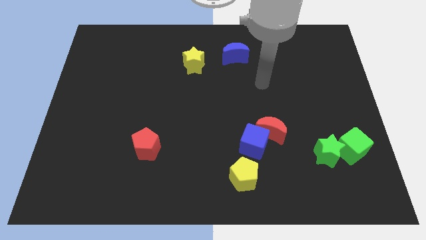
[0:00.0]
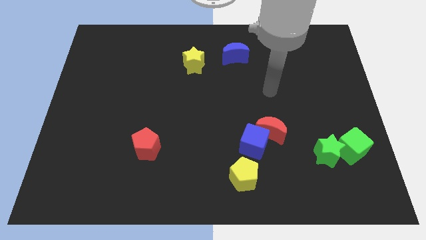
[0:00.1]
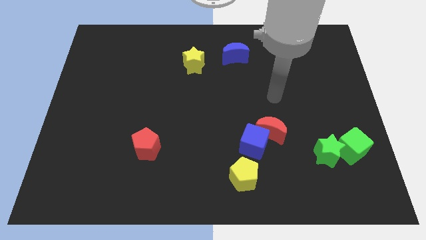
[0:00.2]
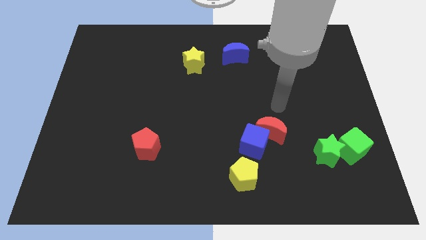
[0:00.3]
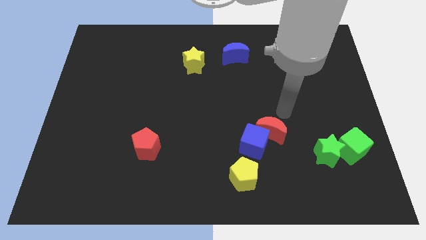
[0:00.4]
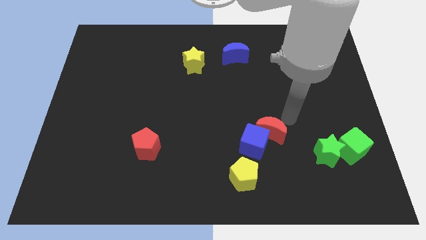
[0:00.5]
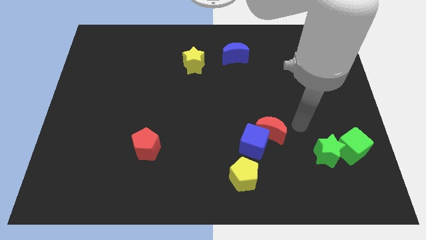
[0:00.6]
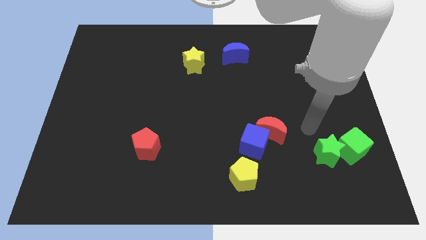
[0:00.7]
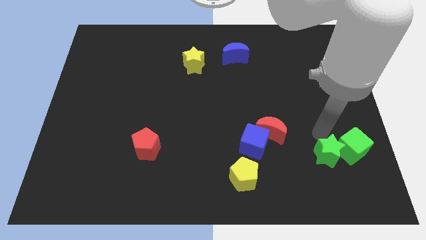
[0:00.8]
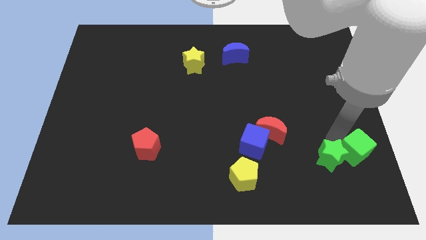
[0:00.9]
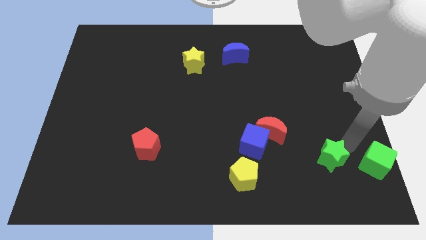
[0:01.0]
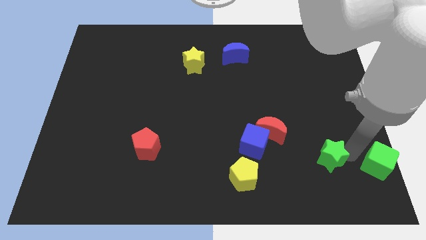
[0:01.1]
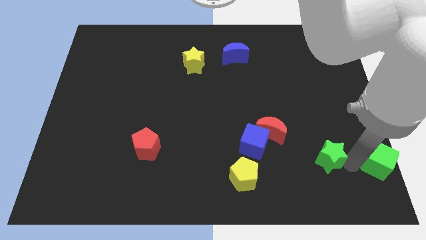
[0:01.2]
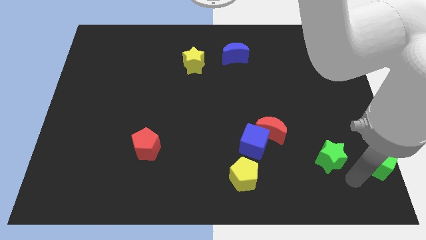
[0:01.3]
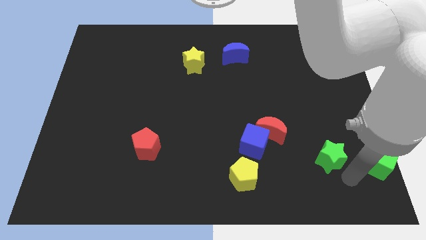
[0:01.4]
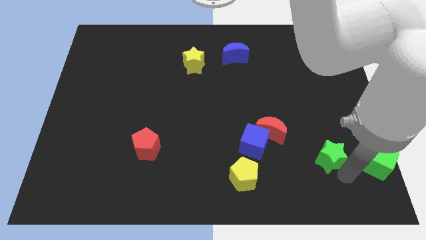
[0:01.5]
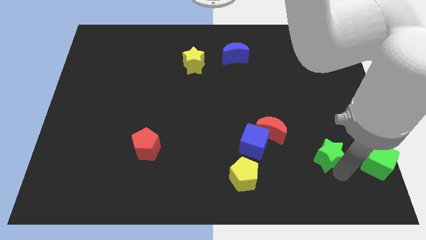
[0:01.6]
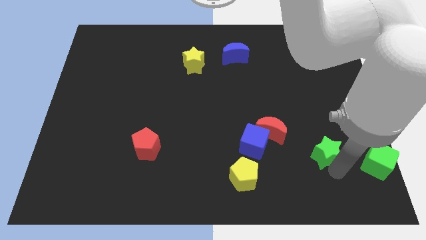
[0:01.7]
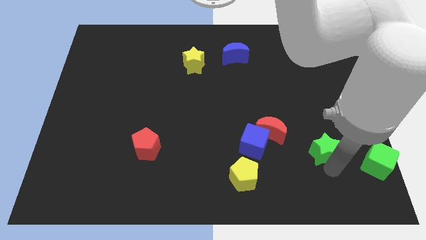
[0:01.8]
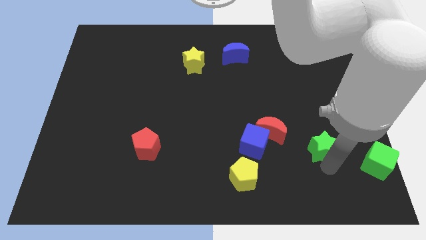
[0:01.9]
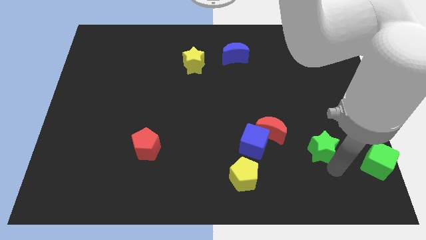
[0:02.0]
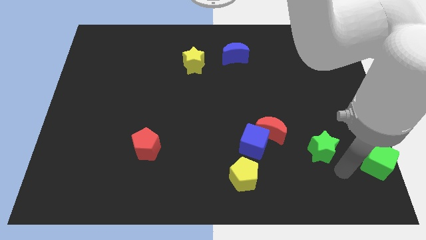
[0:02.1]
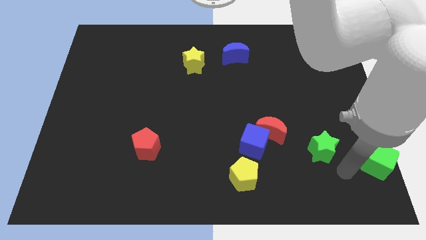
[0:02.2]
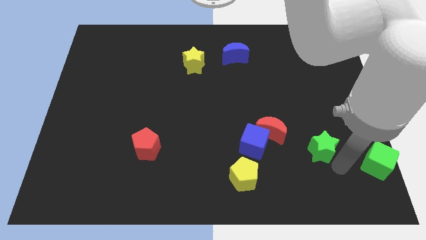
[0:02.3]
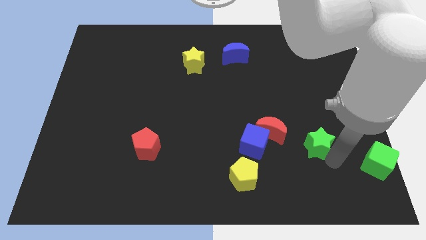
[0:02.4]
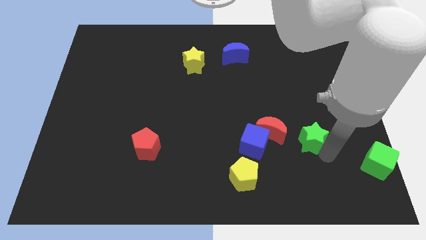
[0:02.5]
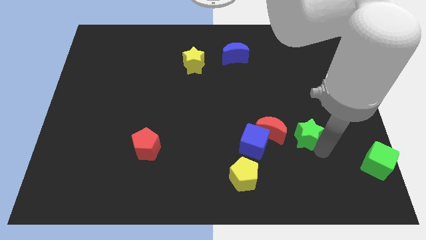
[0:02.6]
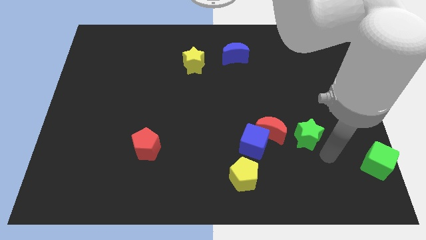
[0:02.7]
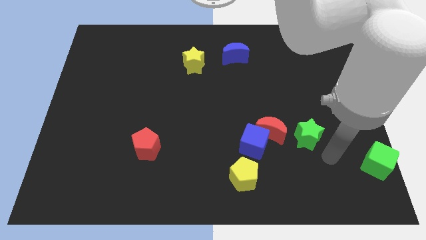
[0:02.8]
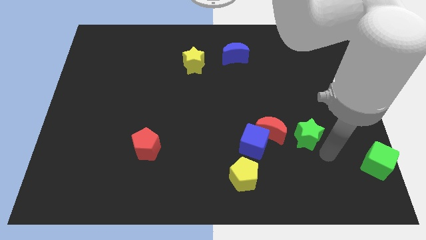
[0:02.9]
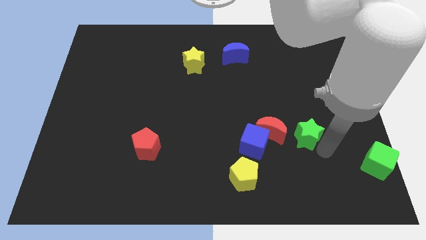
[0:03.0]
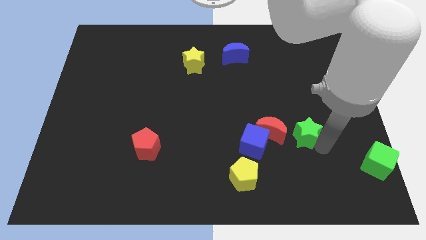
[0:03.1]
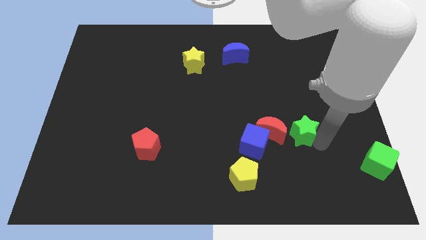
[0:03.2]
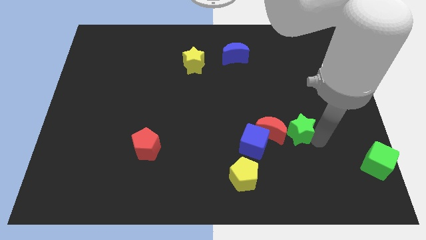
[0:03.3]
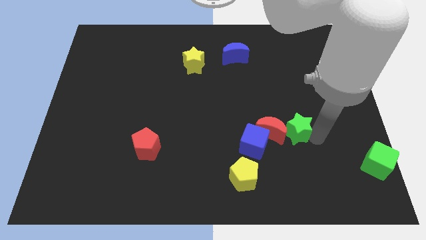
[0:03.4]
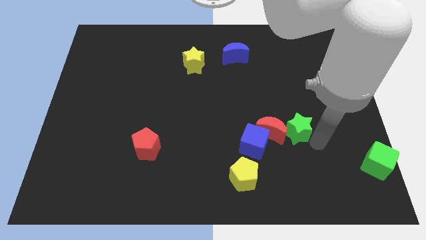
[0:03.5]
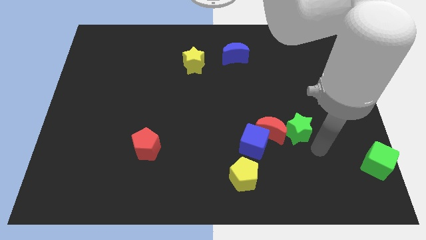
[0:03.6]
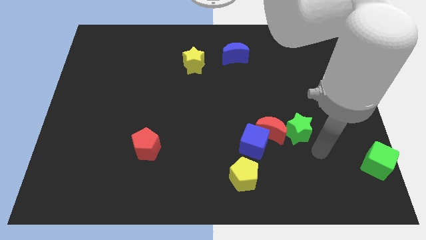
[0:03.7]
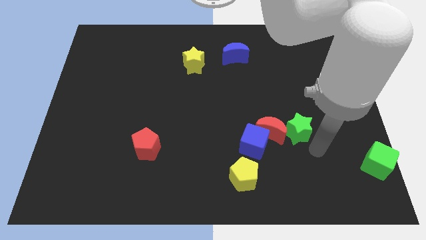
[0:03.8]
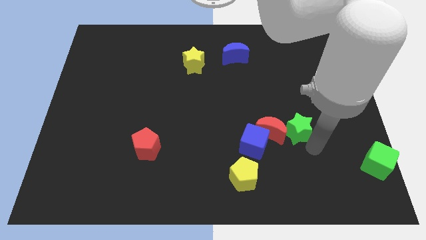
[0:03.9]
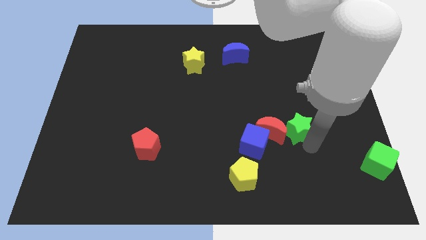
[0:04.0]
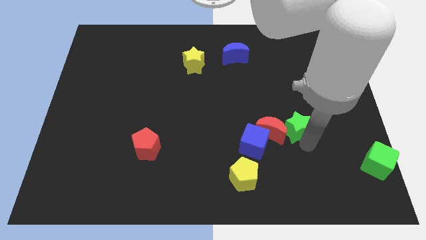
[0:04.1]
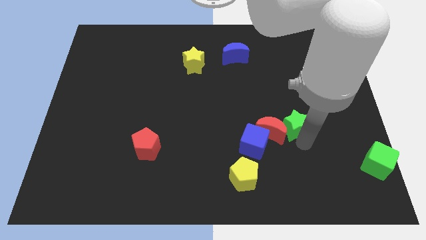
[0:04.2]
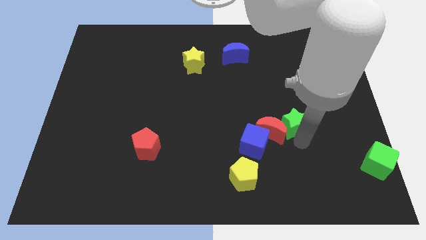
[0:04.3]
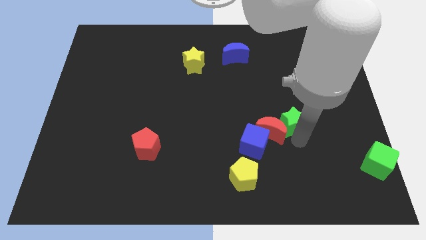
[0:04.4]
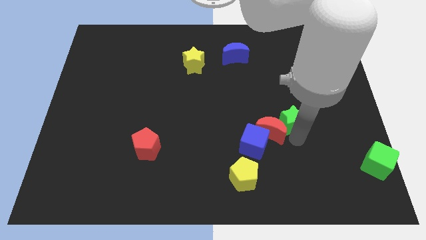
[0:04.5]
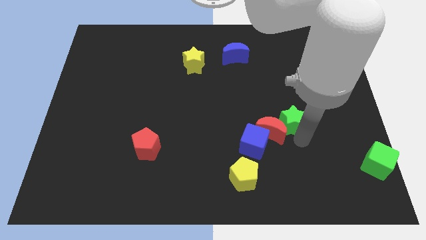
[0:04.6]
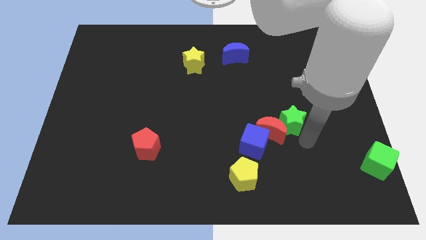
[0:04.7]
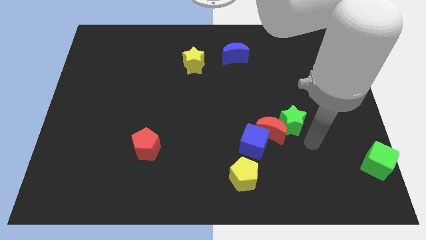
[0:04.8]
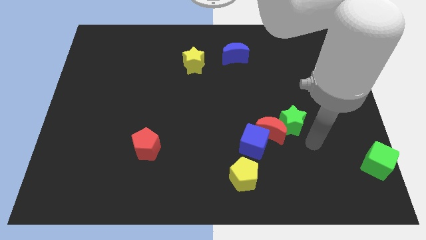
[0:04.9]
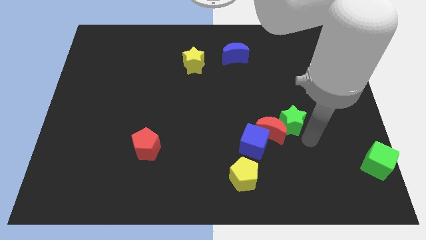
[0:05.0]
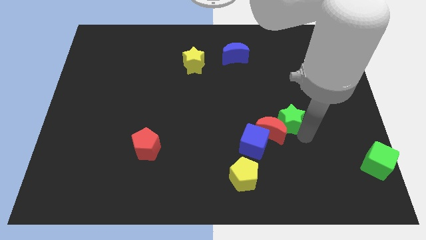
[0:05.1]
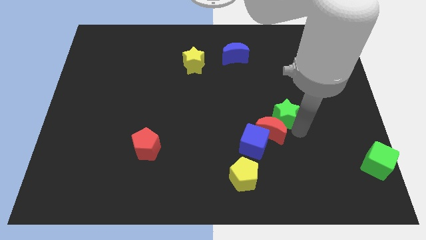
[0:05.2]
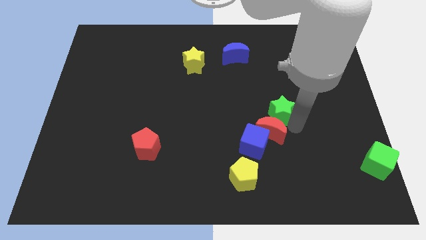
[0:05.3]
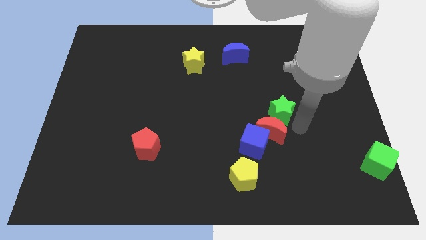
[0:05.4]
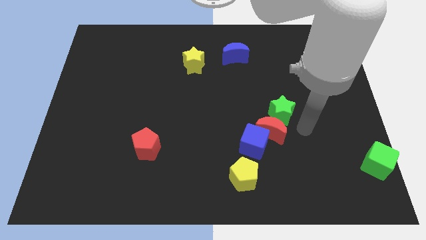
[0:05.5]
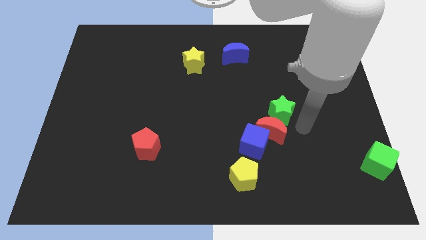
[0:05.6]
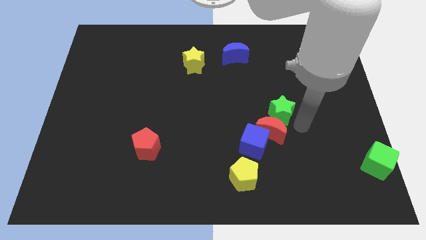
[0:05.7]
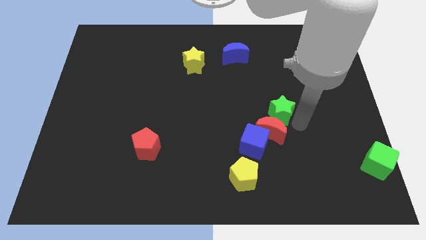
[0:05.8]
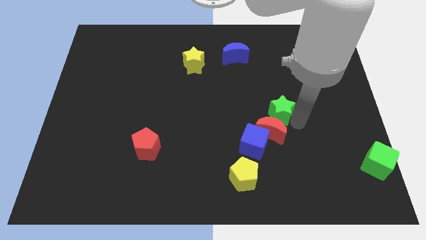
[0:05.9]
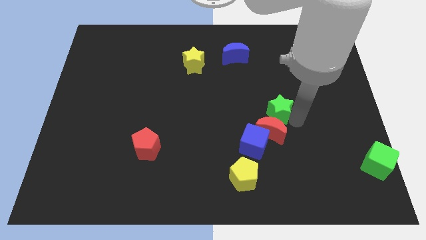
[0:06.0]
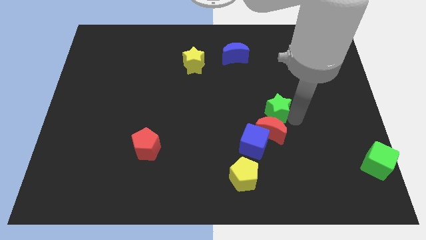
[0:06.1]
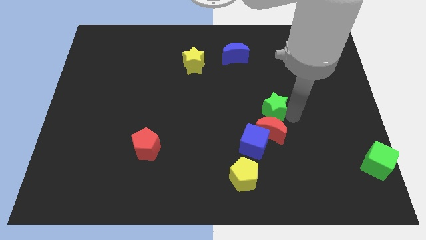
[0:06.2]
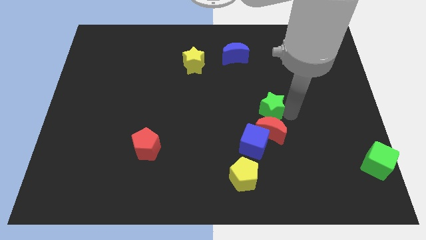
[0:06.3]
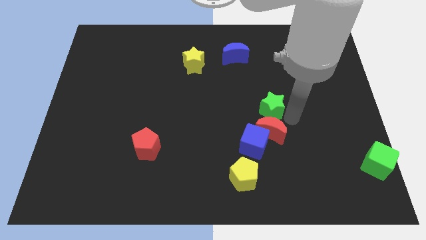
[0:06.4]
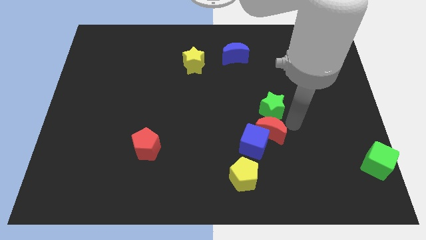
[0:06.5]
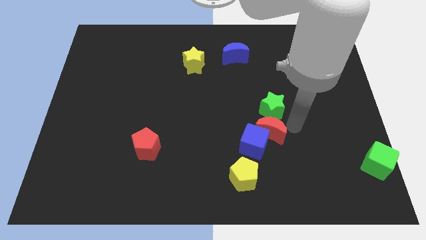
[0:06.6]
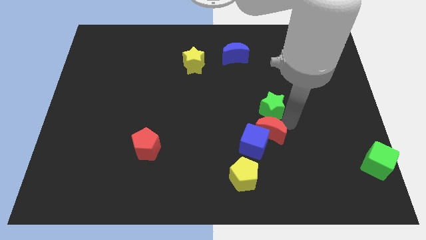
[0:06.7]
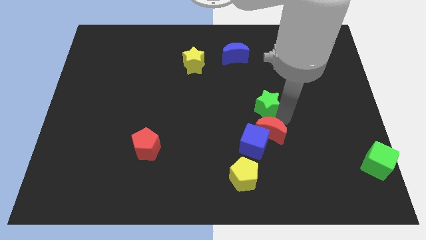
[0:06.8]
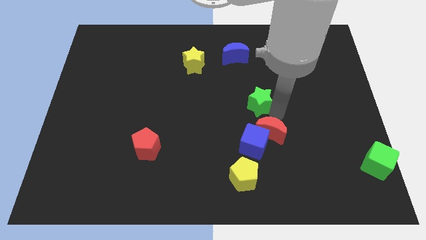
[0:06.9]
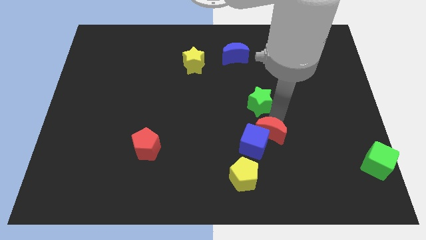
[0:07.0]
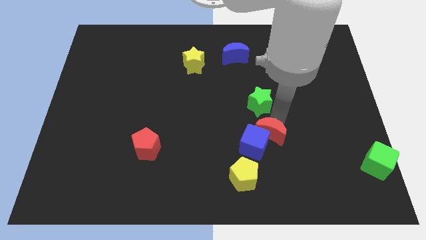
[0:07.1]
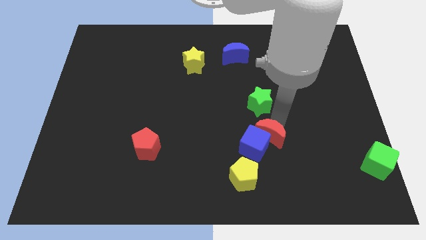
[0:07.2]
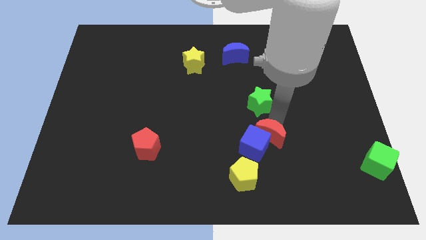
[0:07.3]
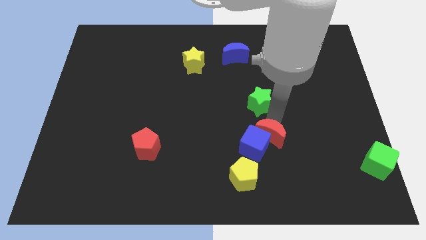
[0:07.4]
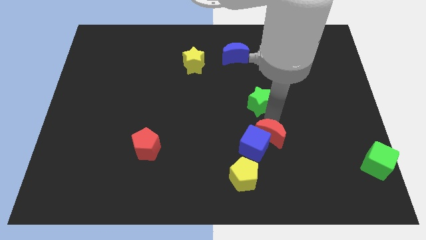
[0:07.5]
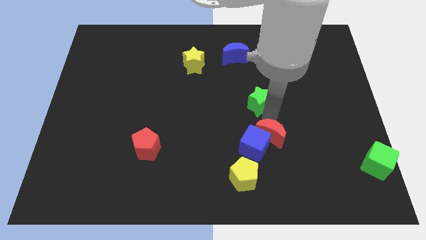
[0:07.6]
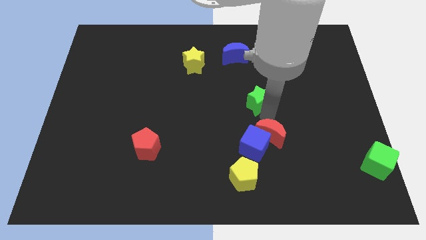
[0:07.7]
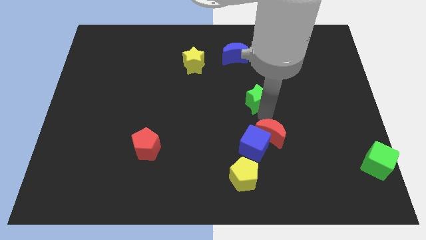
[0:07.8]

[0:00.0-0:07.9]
push the green star up and left diagonally

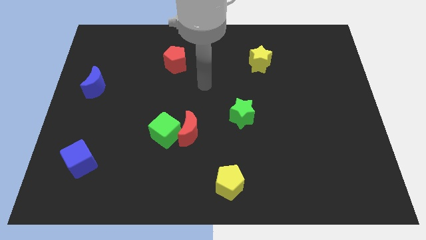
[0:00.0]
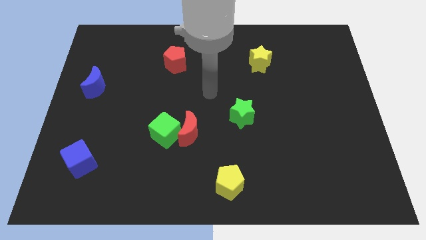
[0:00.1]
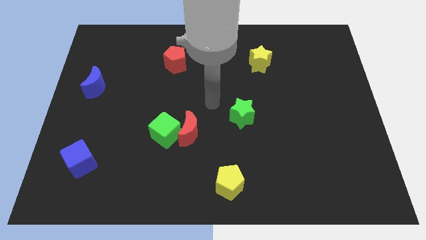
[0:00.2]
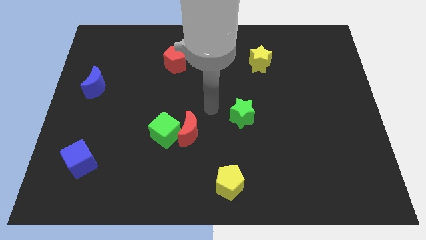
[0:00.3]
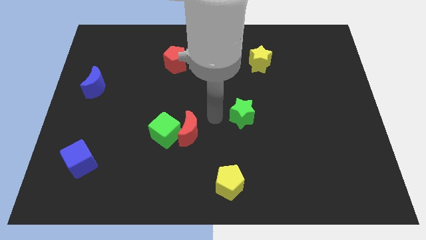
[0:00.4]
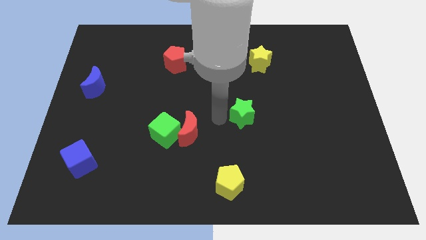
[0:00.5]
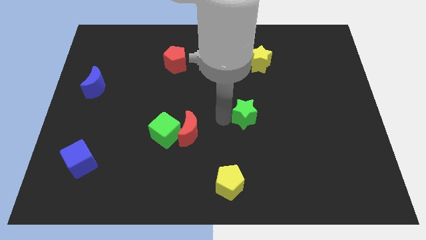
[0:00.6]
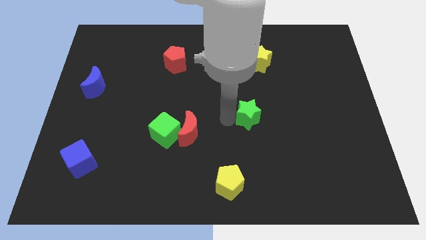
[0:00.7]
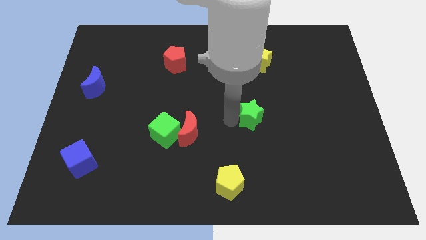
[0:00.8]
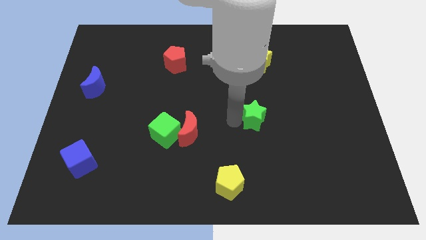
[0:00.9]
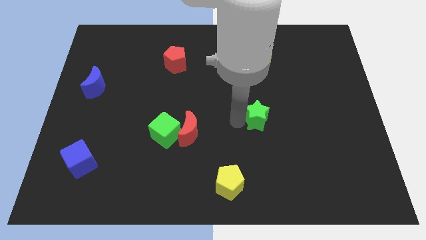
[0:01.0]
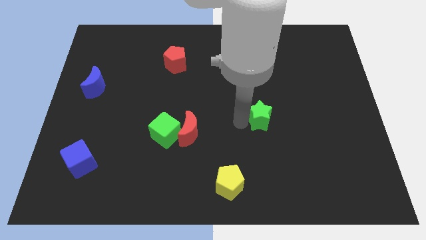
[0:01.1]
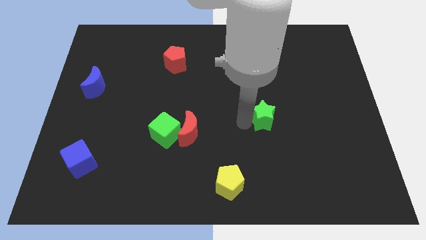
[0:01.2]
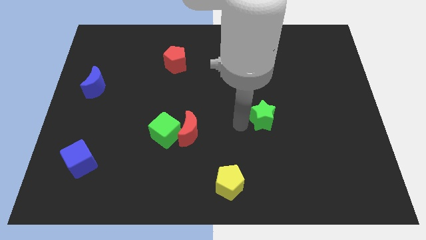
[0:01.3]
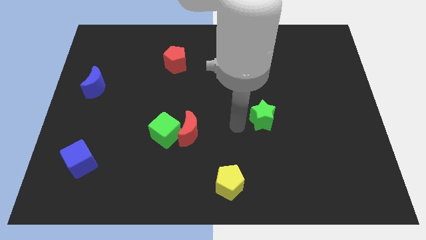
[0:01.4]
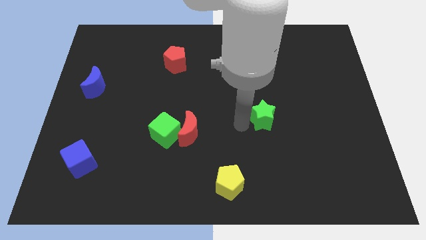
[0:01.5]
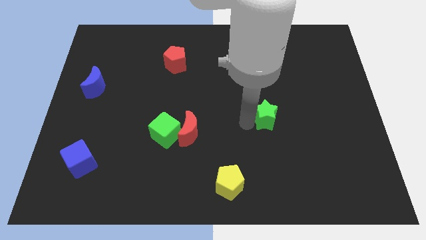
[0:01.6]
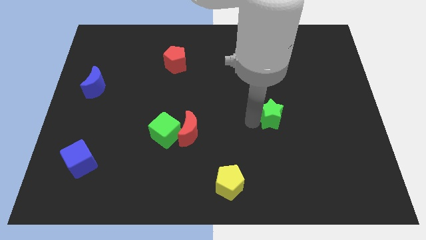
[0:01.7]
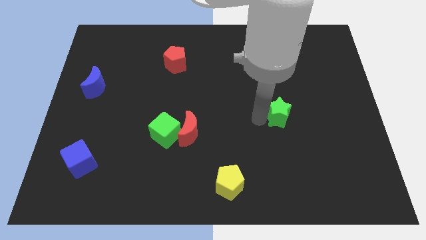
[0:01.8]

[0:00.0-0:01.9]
slide the green star to the right a bit
